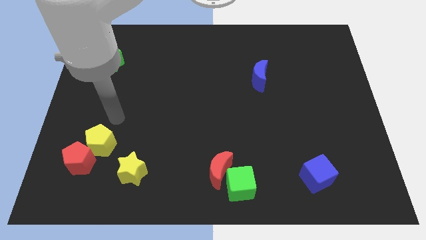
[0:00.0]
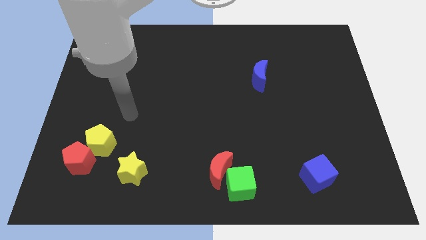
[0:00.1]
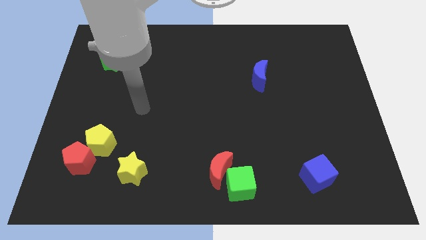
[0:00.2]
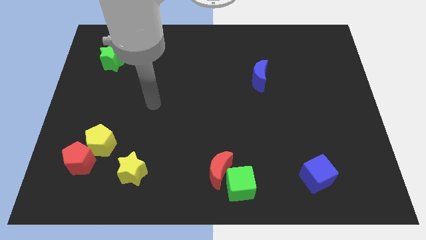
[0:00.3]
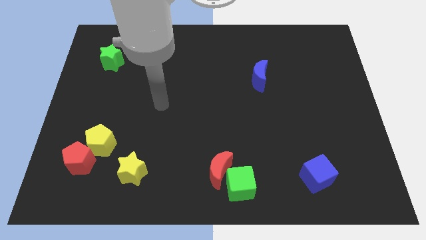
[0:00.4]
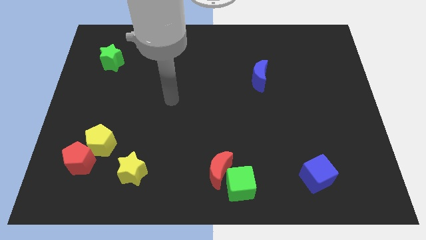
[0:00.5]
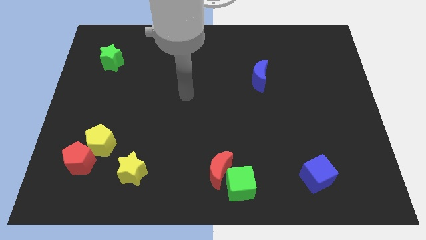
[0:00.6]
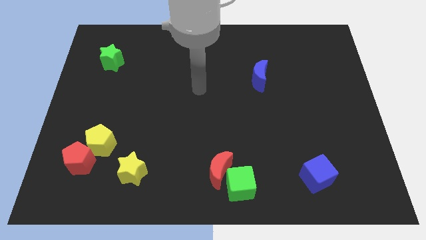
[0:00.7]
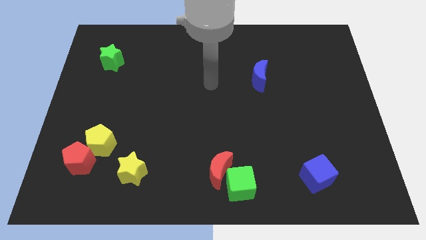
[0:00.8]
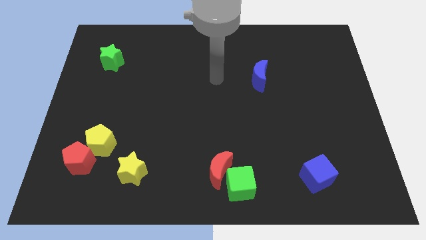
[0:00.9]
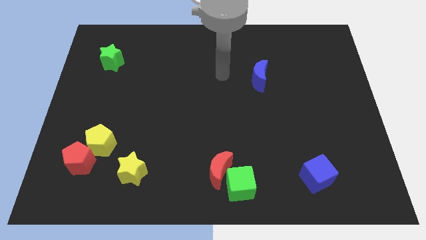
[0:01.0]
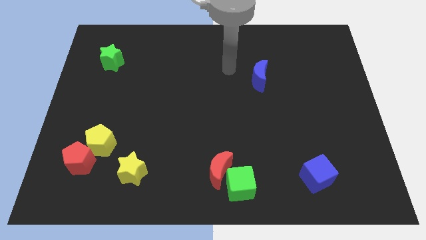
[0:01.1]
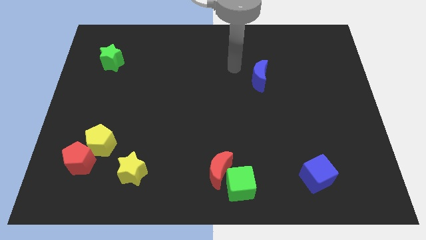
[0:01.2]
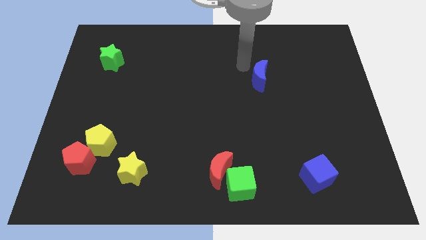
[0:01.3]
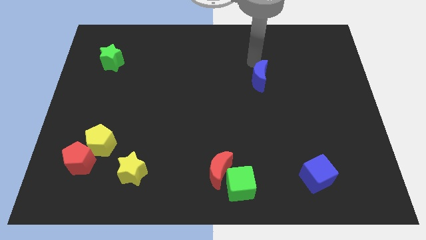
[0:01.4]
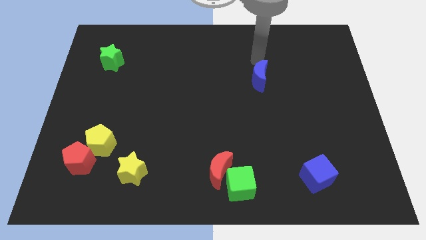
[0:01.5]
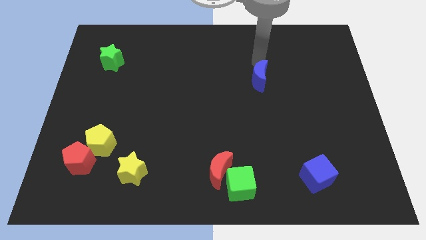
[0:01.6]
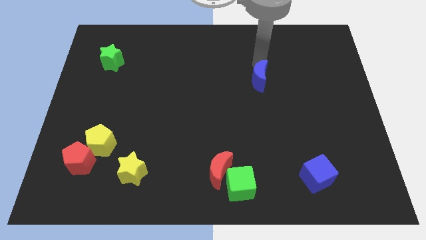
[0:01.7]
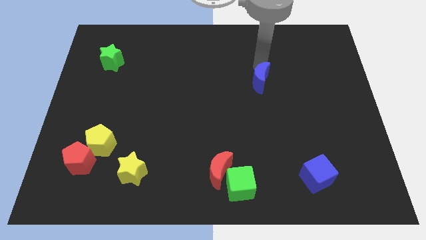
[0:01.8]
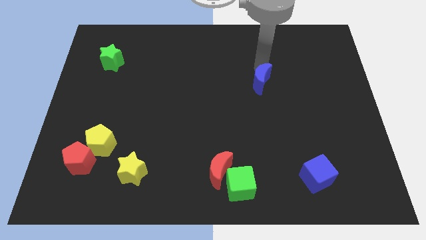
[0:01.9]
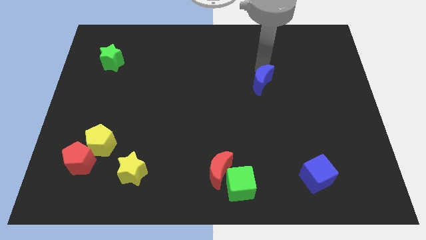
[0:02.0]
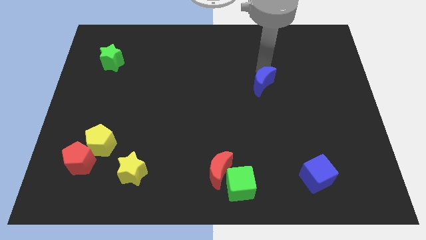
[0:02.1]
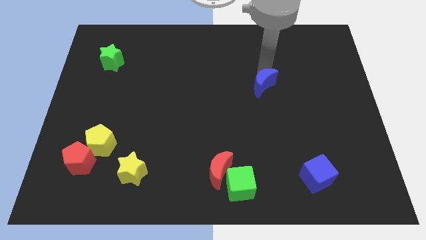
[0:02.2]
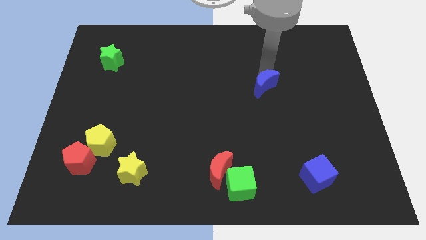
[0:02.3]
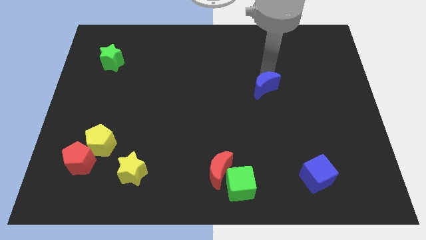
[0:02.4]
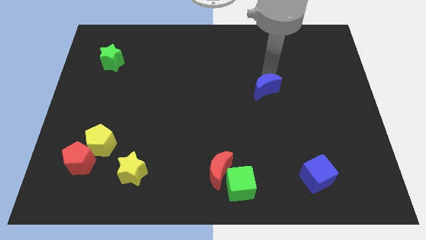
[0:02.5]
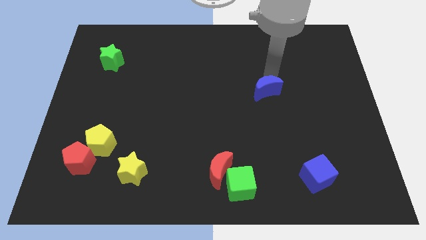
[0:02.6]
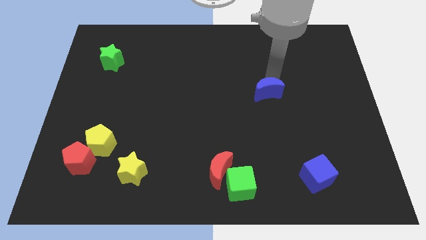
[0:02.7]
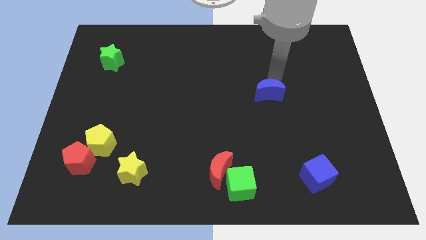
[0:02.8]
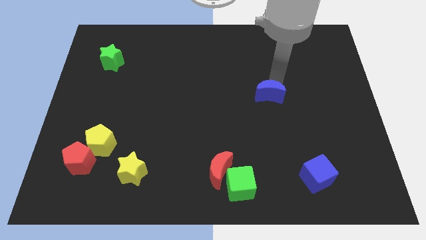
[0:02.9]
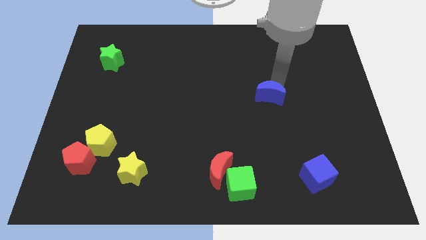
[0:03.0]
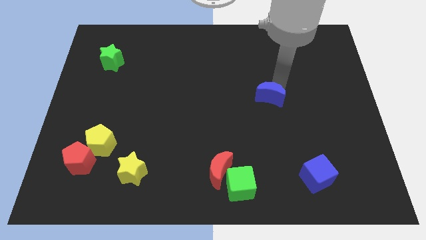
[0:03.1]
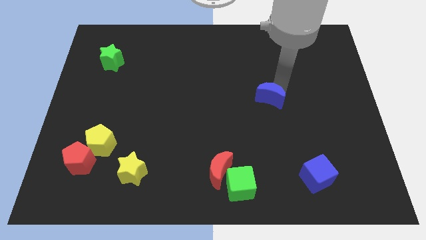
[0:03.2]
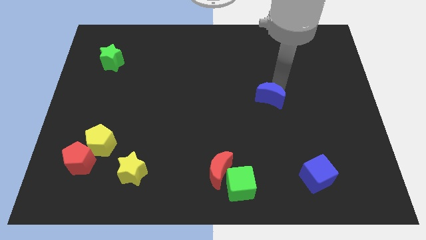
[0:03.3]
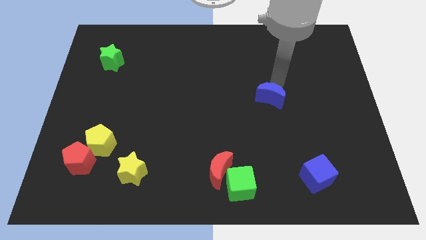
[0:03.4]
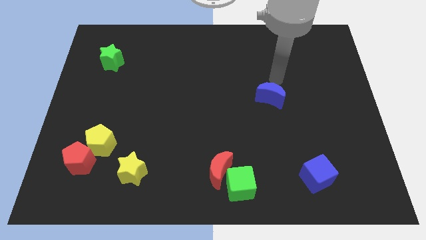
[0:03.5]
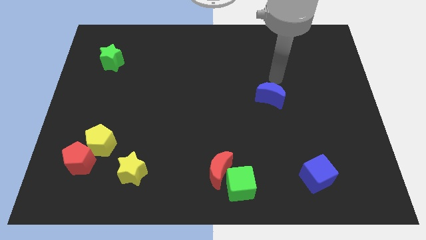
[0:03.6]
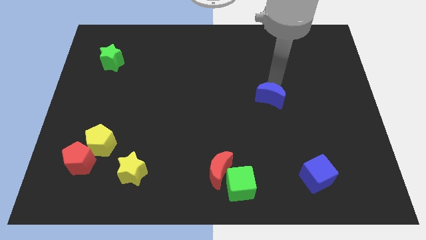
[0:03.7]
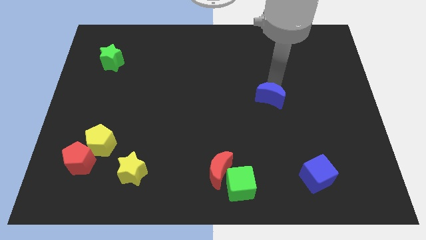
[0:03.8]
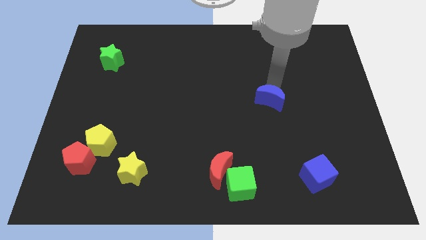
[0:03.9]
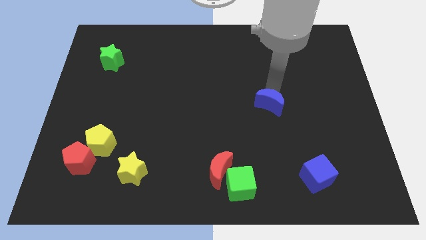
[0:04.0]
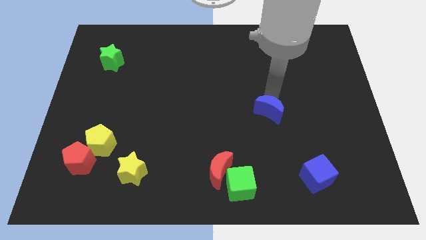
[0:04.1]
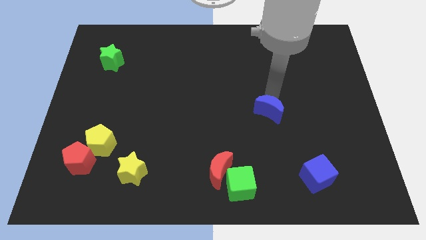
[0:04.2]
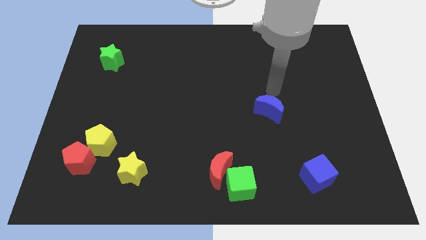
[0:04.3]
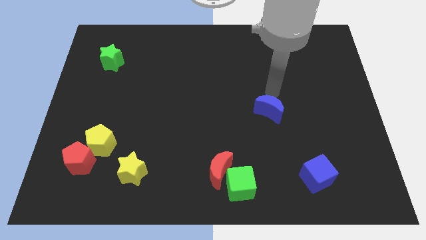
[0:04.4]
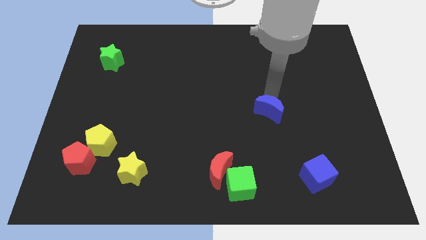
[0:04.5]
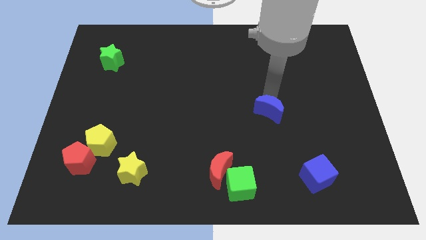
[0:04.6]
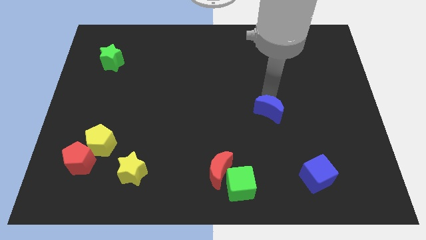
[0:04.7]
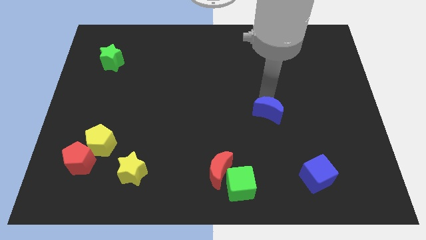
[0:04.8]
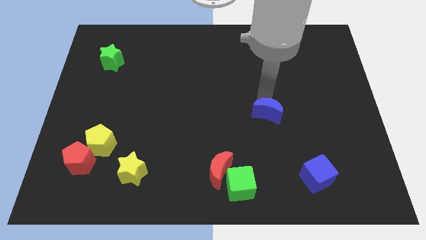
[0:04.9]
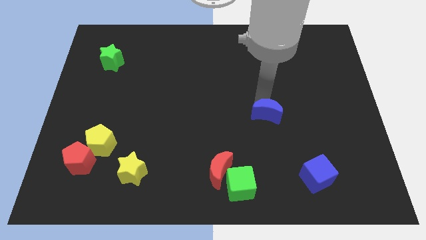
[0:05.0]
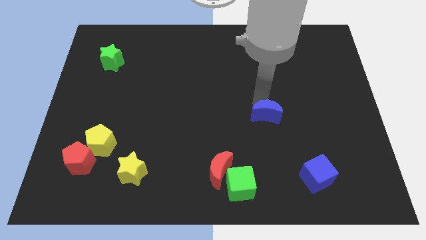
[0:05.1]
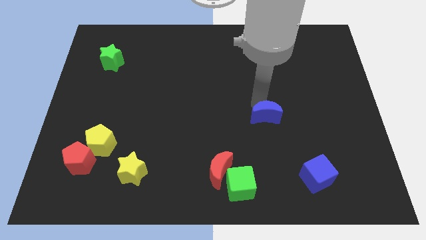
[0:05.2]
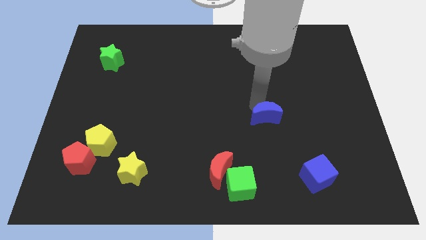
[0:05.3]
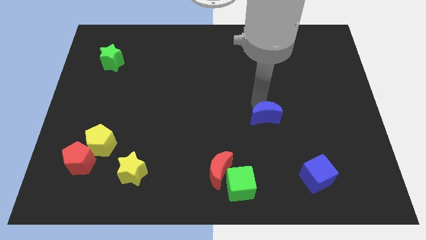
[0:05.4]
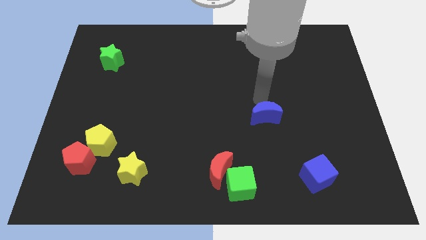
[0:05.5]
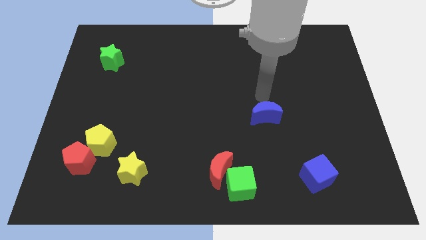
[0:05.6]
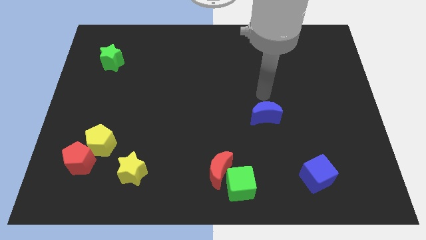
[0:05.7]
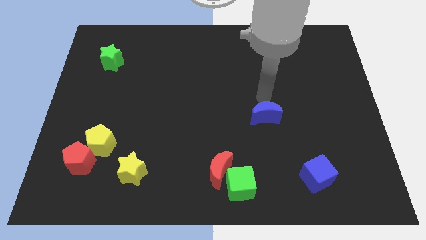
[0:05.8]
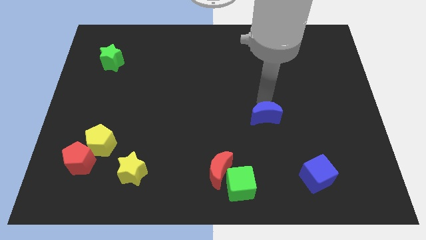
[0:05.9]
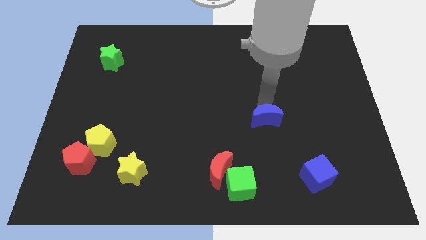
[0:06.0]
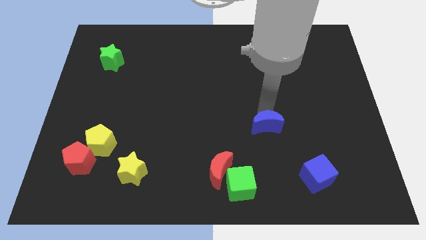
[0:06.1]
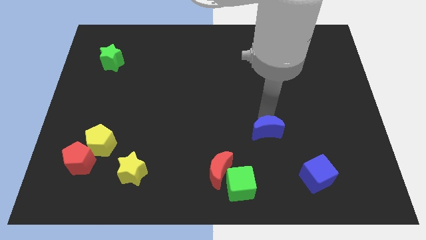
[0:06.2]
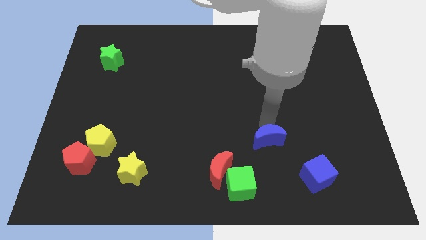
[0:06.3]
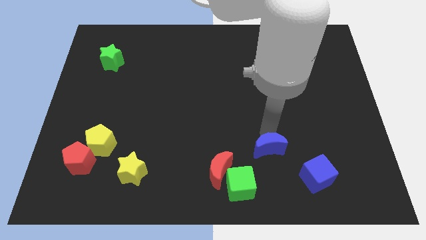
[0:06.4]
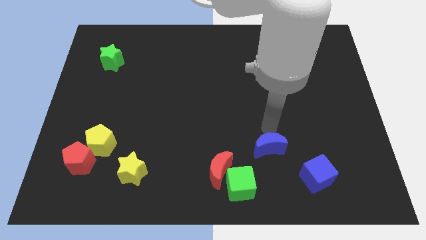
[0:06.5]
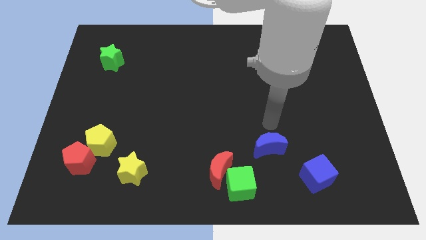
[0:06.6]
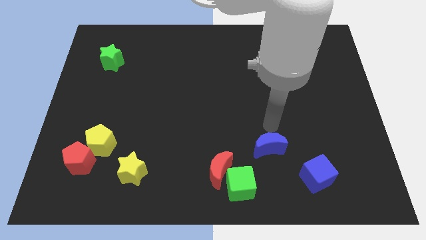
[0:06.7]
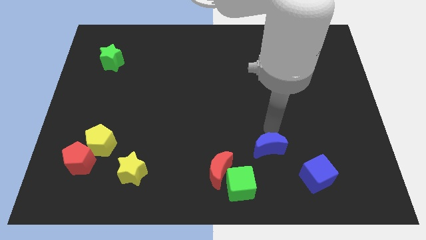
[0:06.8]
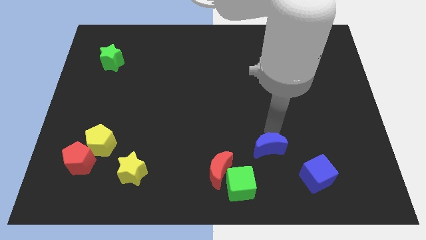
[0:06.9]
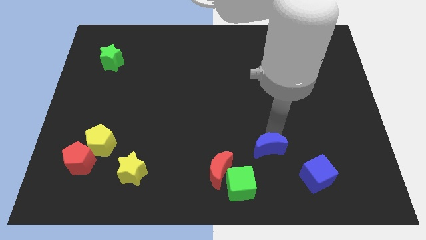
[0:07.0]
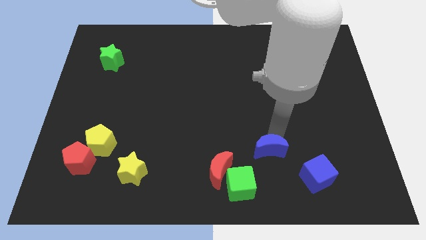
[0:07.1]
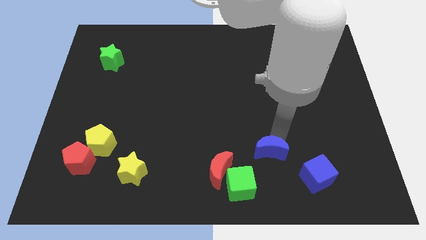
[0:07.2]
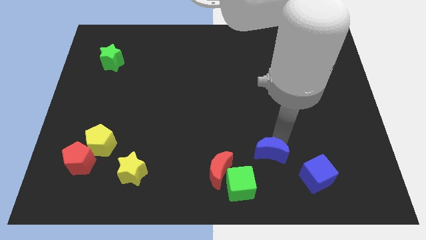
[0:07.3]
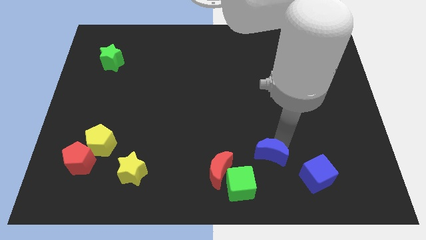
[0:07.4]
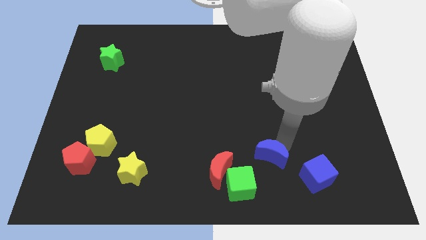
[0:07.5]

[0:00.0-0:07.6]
push the blue moon left of the blue cube
